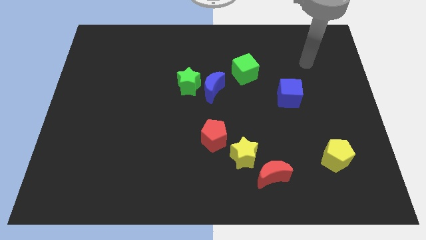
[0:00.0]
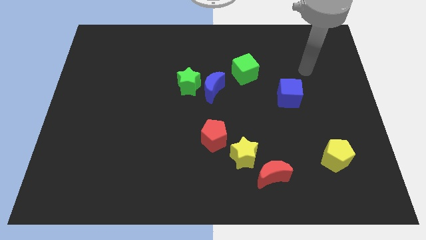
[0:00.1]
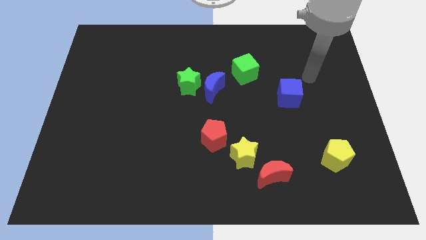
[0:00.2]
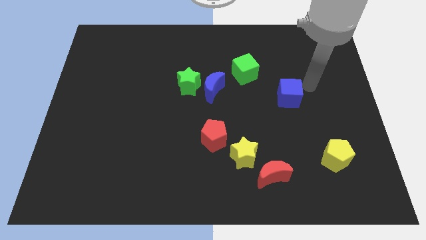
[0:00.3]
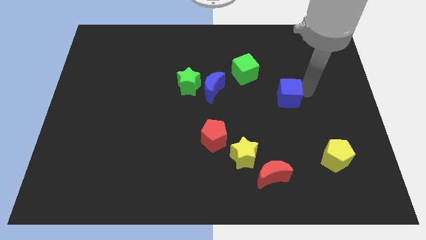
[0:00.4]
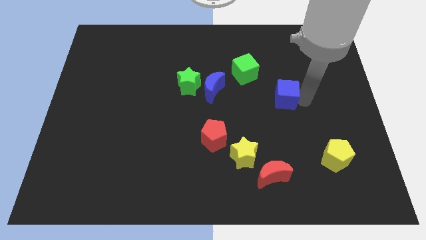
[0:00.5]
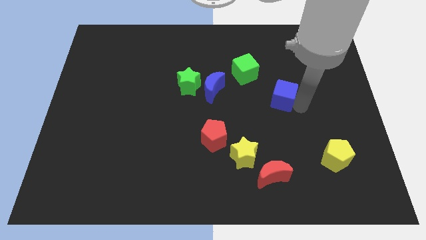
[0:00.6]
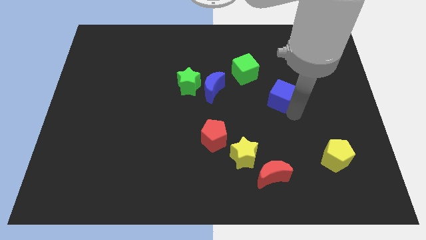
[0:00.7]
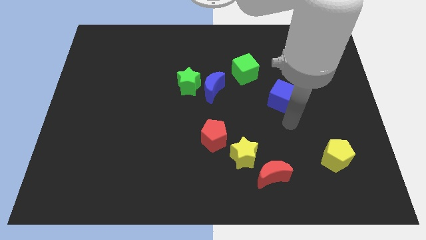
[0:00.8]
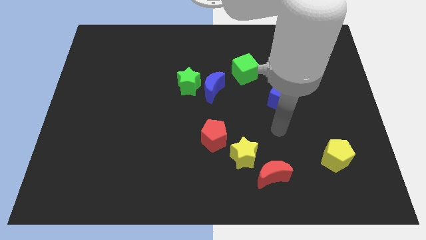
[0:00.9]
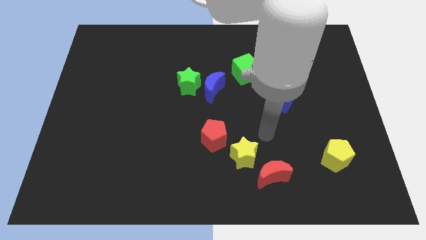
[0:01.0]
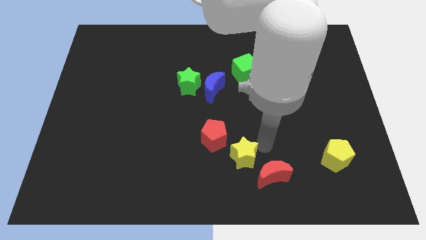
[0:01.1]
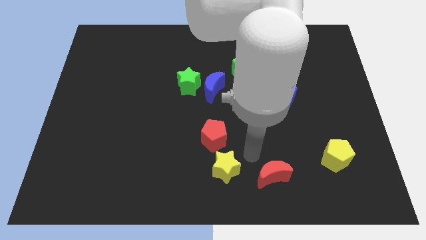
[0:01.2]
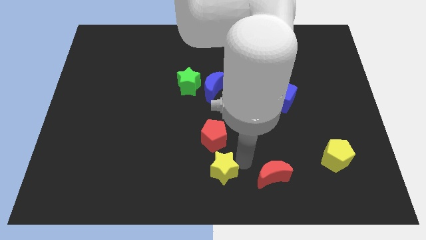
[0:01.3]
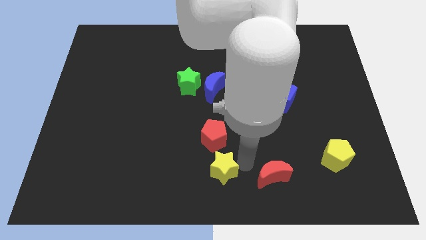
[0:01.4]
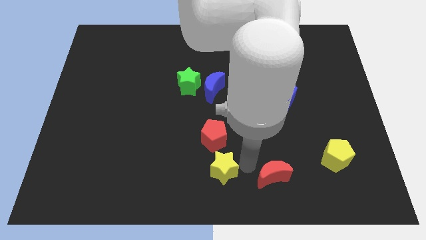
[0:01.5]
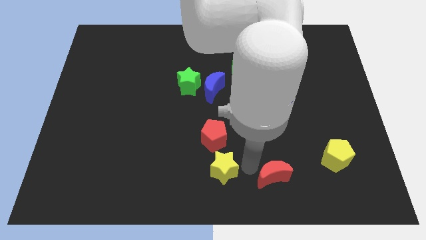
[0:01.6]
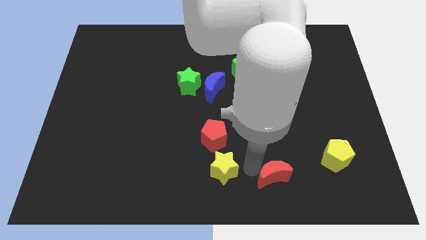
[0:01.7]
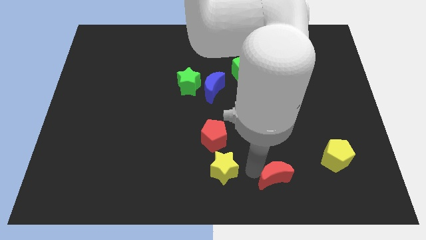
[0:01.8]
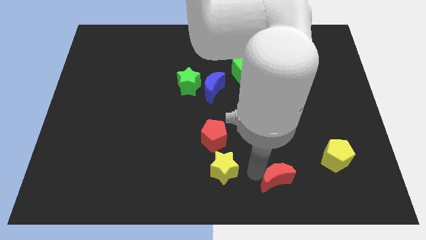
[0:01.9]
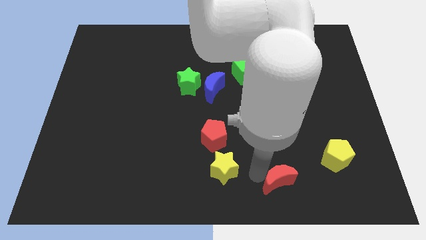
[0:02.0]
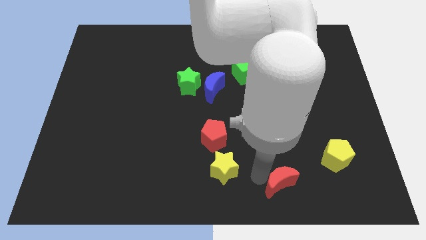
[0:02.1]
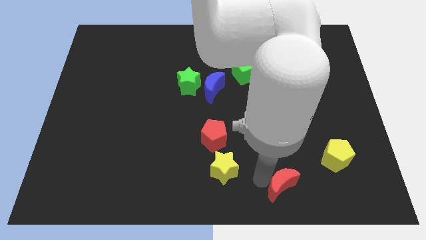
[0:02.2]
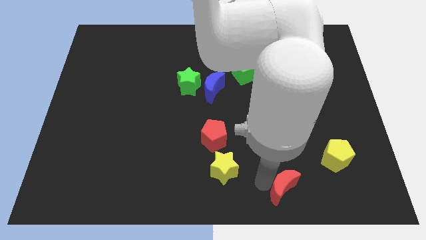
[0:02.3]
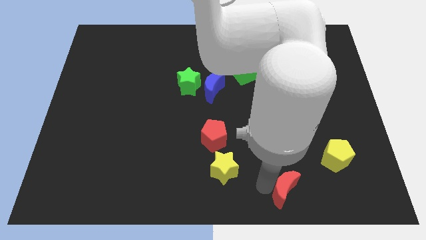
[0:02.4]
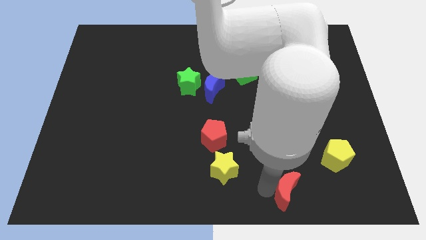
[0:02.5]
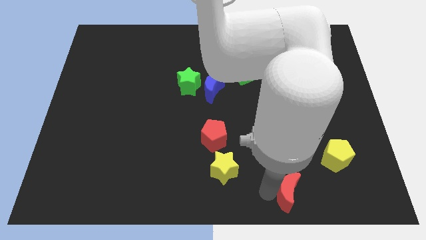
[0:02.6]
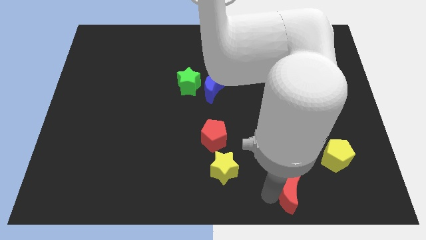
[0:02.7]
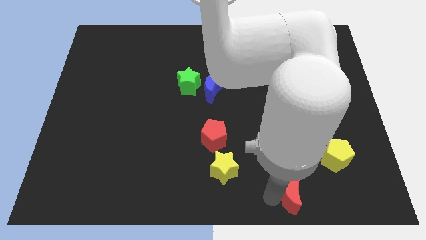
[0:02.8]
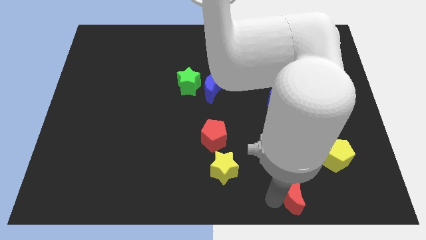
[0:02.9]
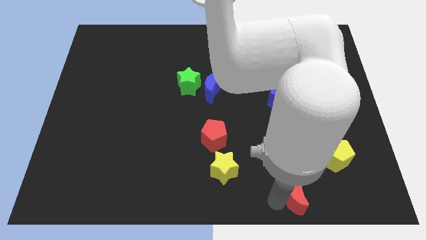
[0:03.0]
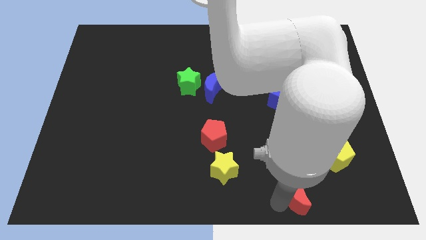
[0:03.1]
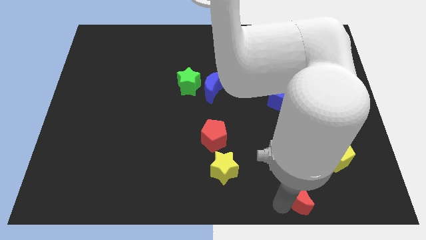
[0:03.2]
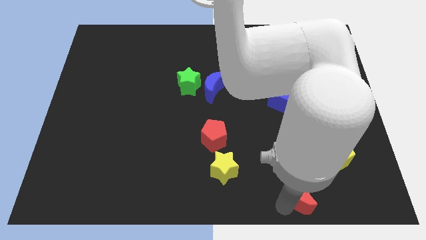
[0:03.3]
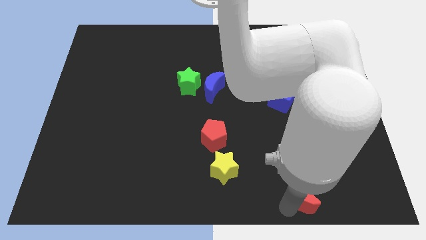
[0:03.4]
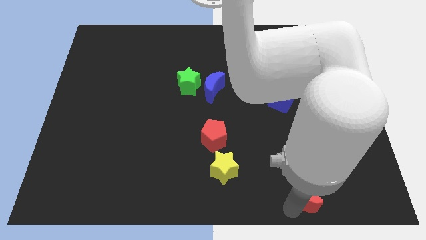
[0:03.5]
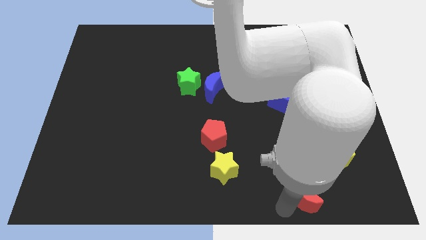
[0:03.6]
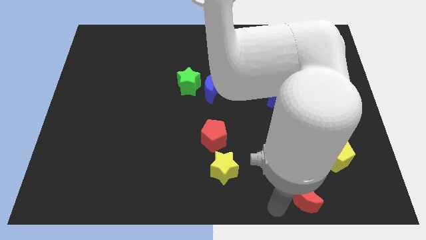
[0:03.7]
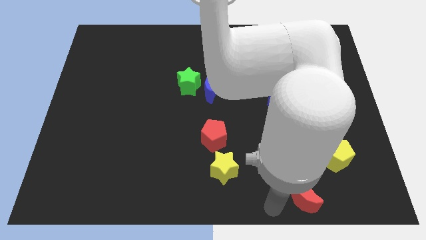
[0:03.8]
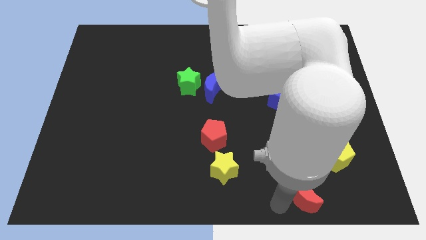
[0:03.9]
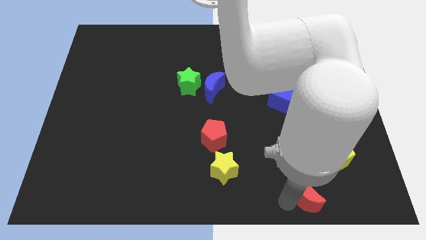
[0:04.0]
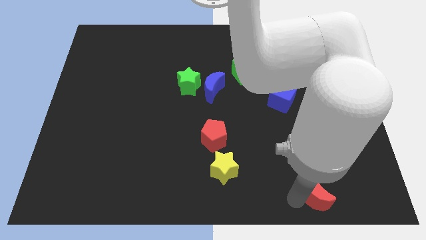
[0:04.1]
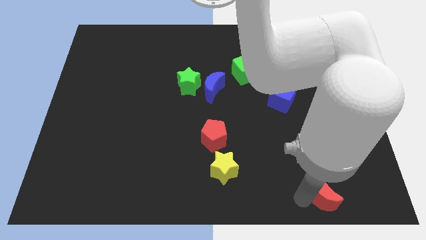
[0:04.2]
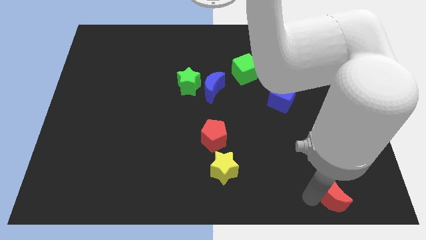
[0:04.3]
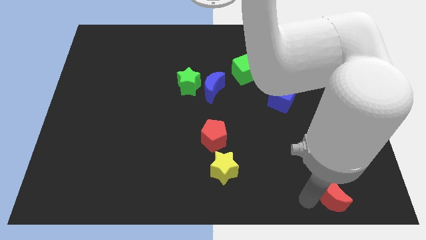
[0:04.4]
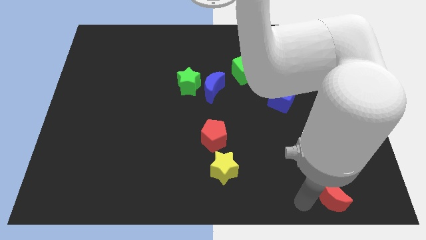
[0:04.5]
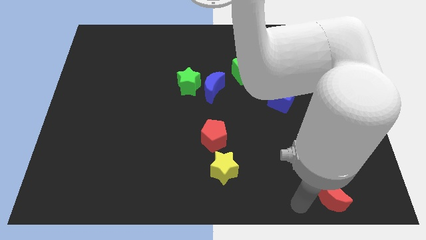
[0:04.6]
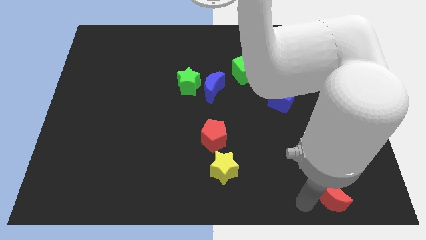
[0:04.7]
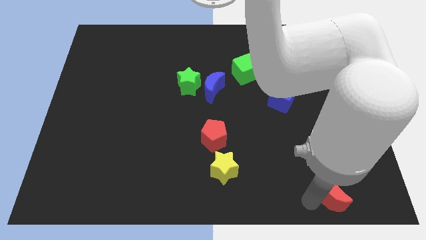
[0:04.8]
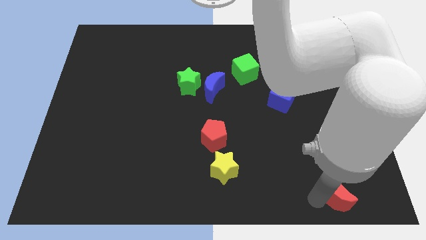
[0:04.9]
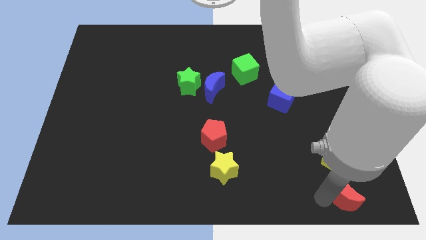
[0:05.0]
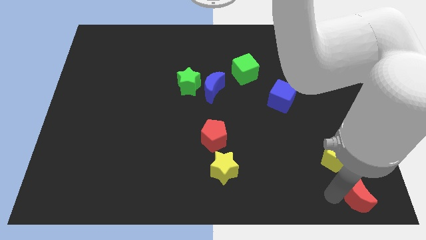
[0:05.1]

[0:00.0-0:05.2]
move the red moon to the bottom right of the board

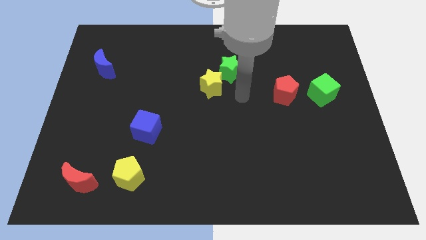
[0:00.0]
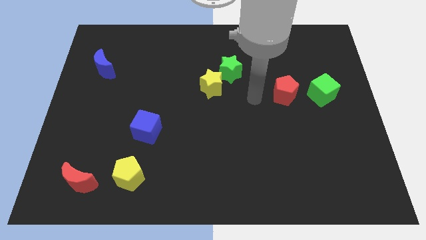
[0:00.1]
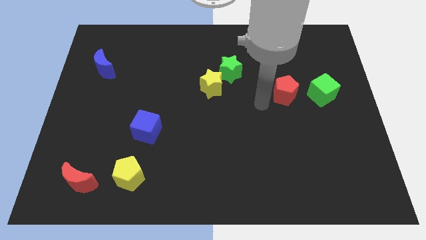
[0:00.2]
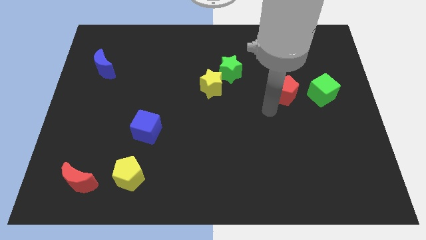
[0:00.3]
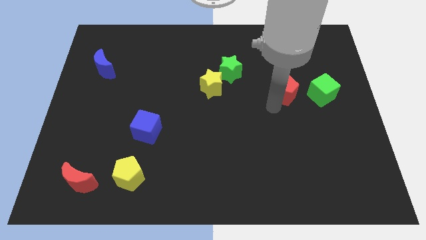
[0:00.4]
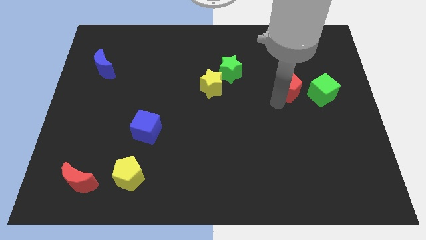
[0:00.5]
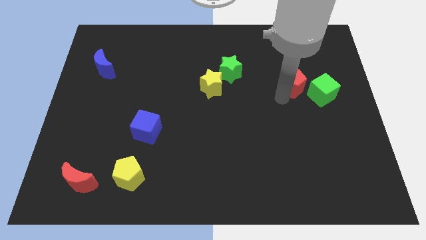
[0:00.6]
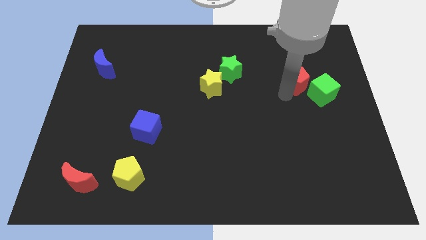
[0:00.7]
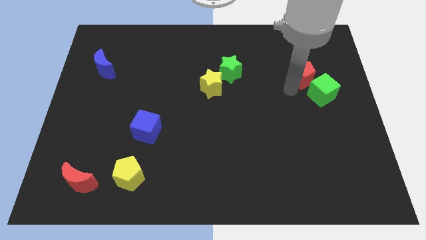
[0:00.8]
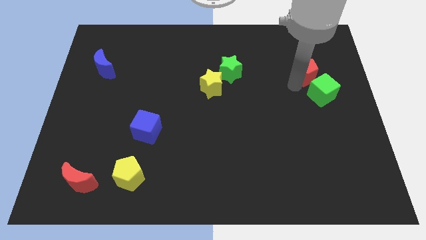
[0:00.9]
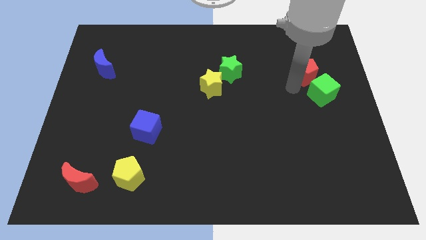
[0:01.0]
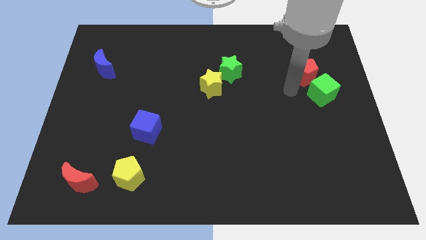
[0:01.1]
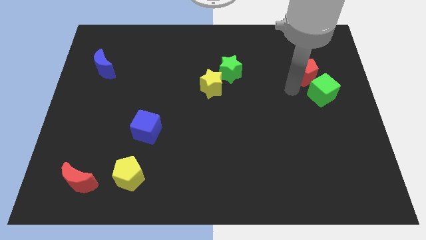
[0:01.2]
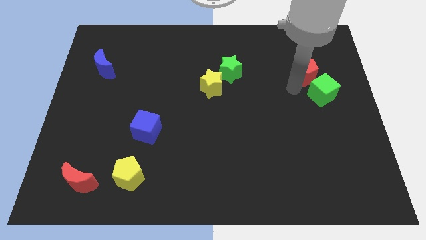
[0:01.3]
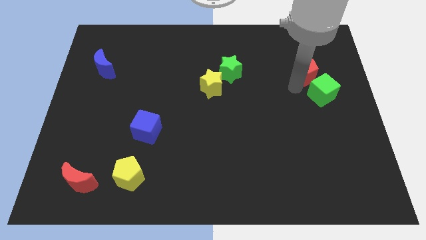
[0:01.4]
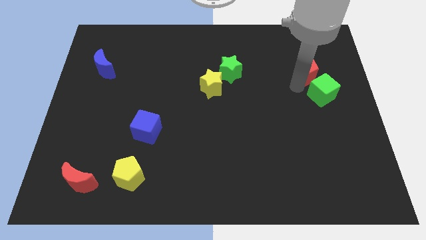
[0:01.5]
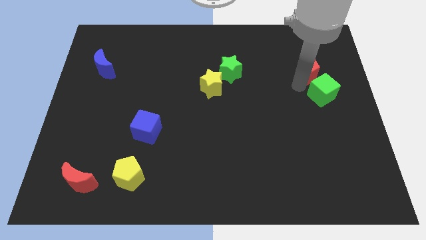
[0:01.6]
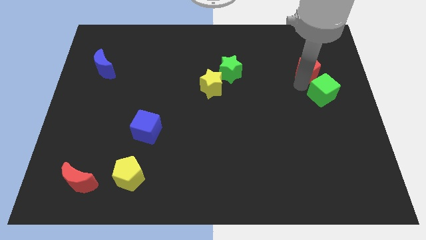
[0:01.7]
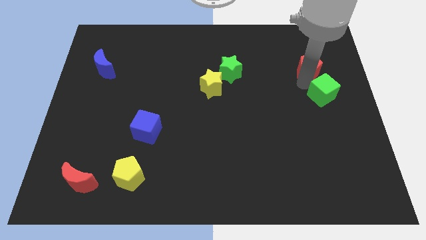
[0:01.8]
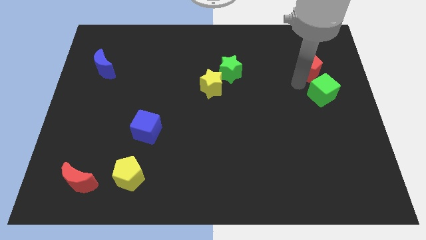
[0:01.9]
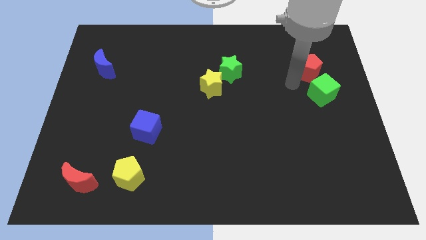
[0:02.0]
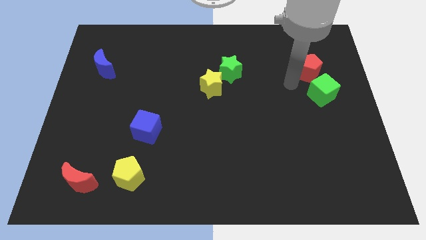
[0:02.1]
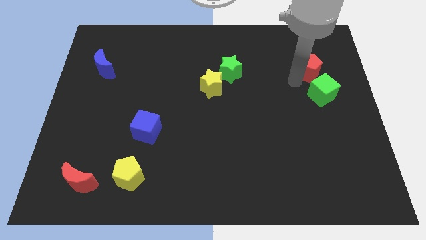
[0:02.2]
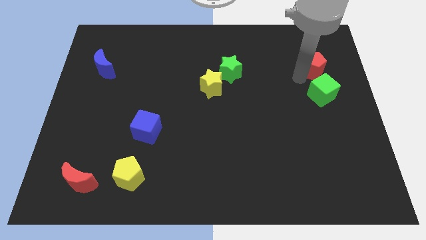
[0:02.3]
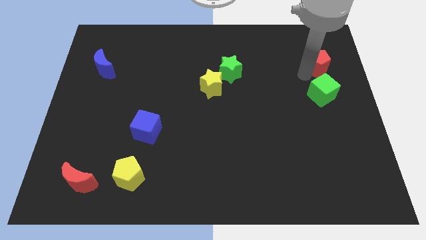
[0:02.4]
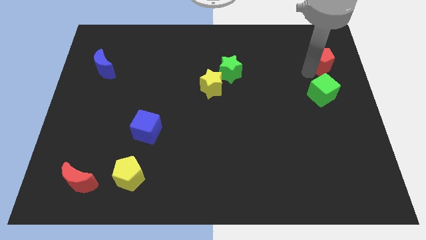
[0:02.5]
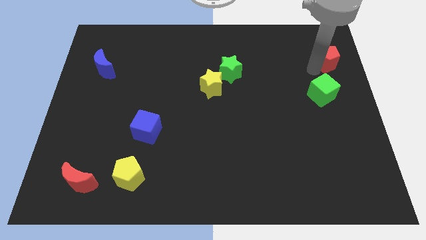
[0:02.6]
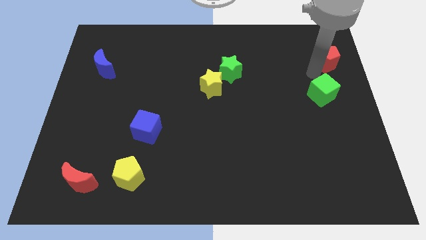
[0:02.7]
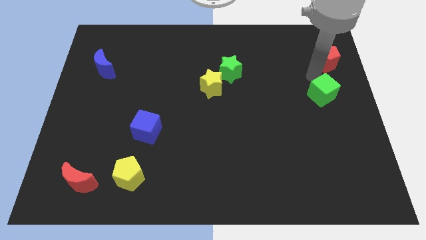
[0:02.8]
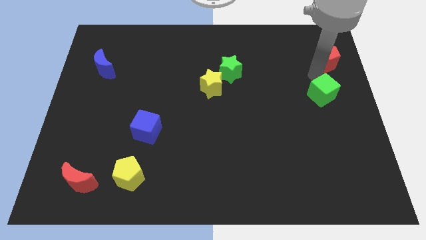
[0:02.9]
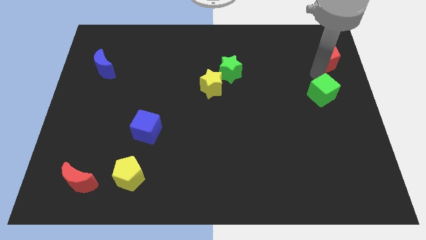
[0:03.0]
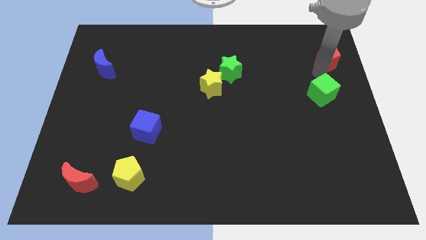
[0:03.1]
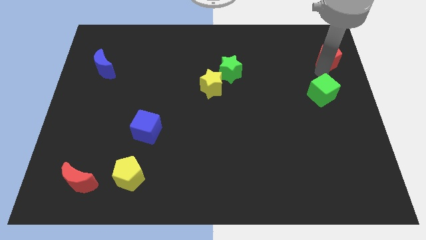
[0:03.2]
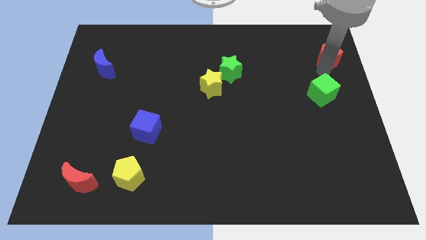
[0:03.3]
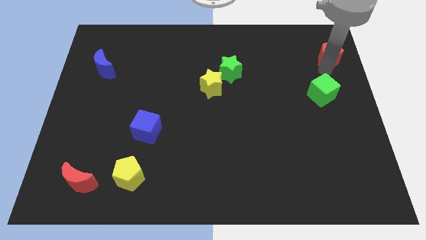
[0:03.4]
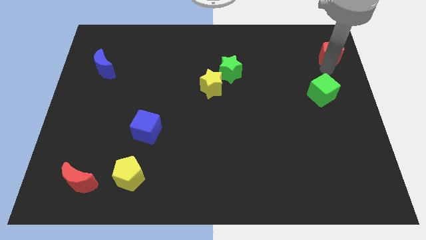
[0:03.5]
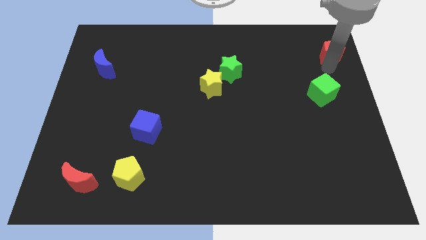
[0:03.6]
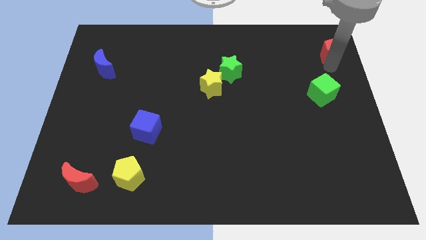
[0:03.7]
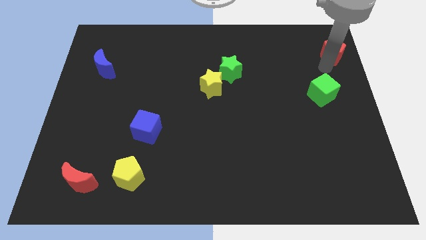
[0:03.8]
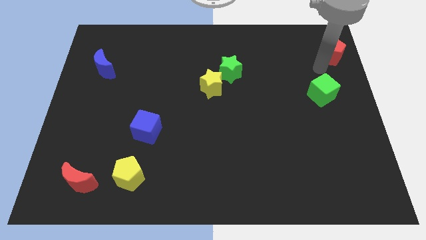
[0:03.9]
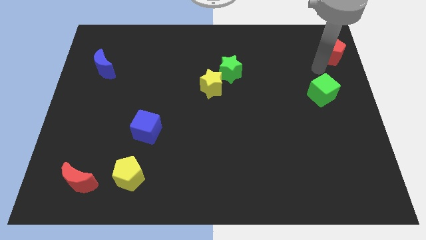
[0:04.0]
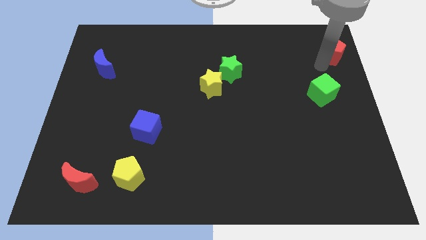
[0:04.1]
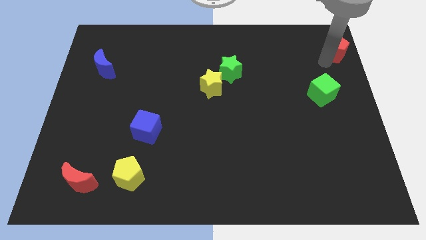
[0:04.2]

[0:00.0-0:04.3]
move the red pentagon to the top right
